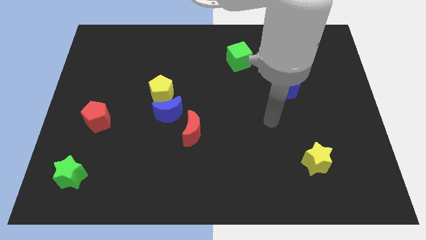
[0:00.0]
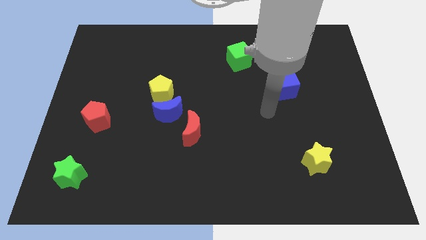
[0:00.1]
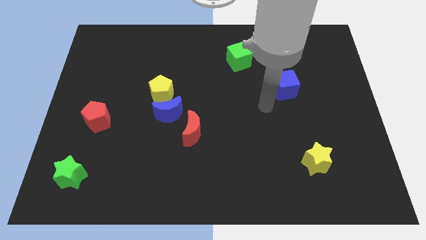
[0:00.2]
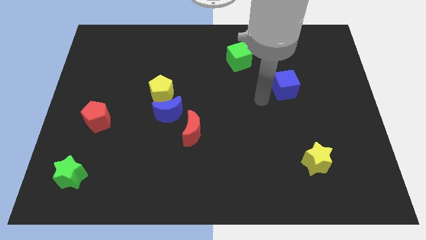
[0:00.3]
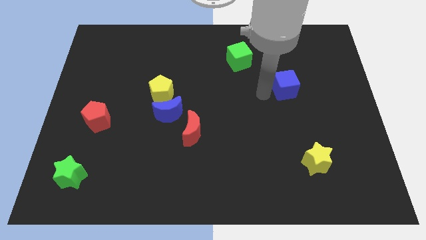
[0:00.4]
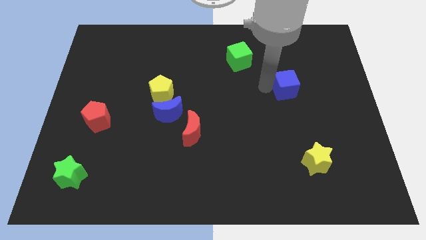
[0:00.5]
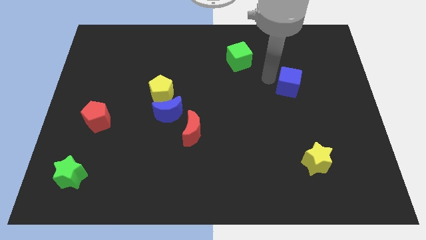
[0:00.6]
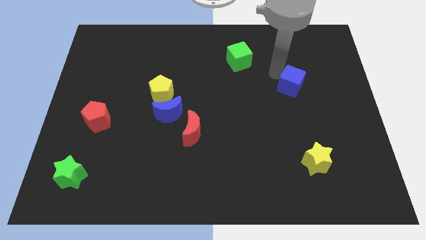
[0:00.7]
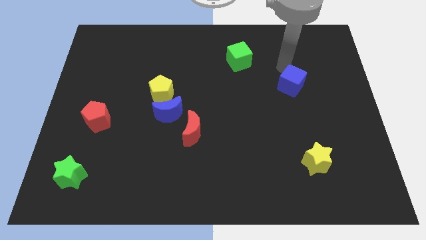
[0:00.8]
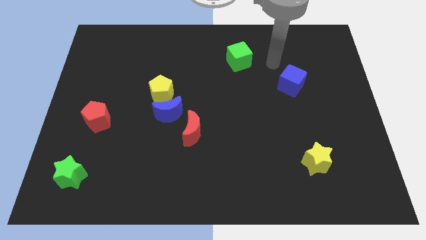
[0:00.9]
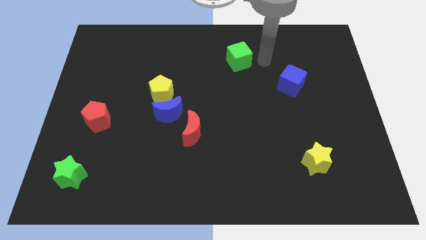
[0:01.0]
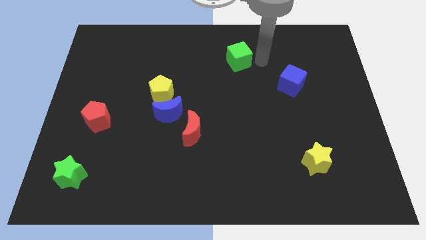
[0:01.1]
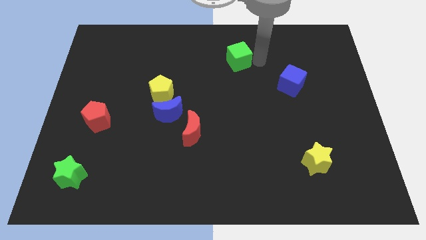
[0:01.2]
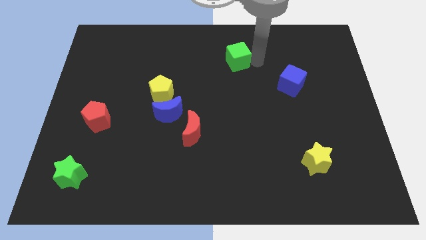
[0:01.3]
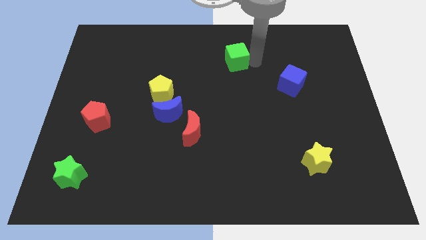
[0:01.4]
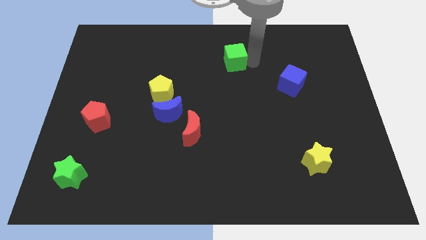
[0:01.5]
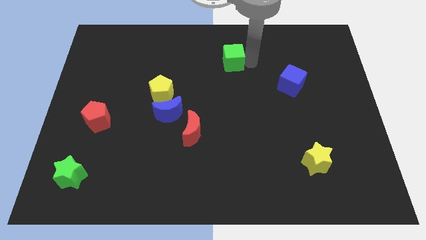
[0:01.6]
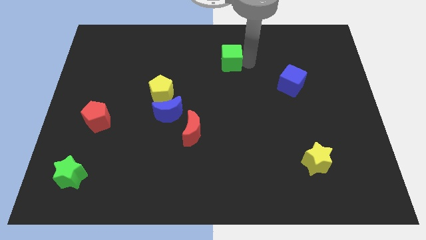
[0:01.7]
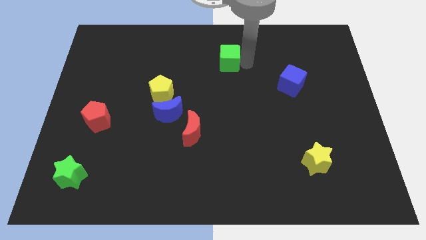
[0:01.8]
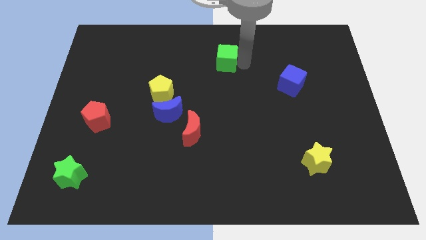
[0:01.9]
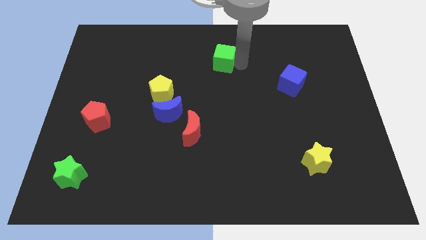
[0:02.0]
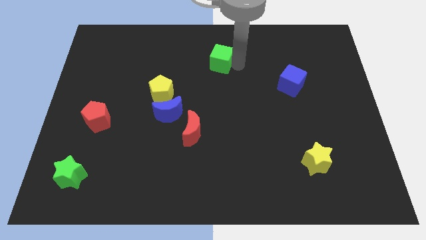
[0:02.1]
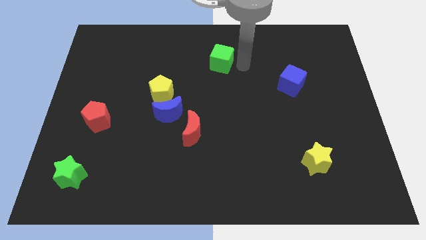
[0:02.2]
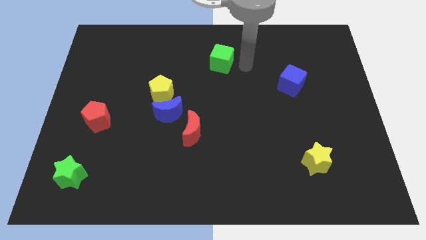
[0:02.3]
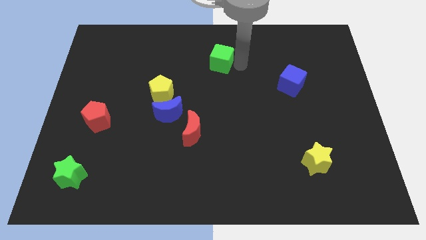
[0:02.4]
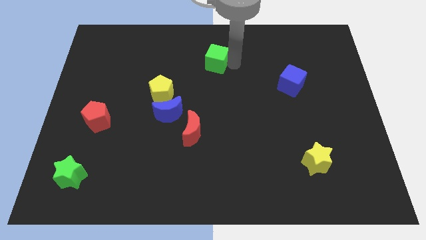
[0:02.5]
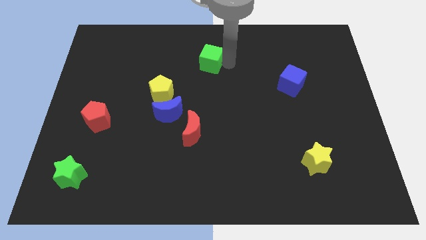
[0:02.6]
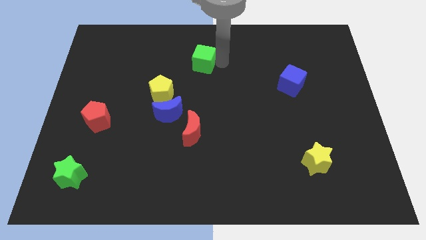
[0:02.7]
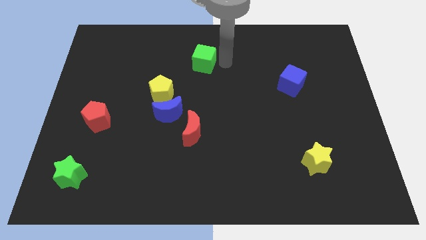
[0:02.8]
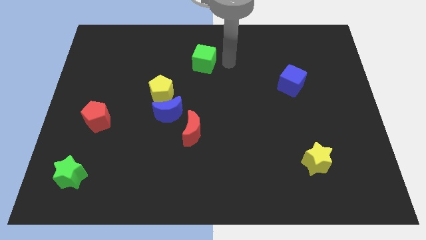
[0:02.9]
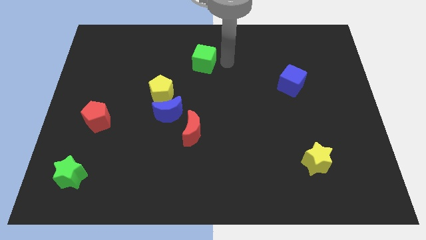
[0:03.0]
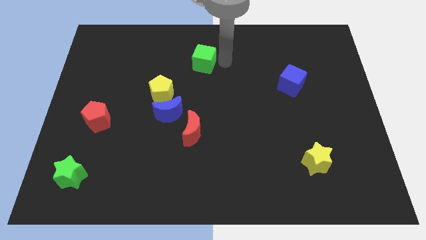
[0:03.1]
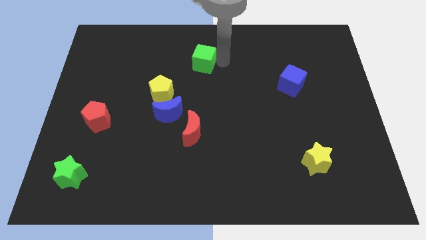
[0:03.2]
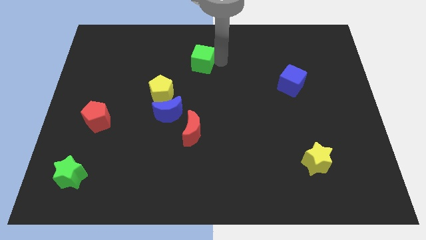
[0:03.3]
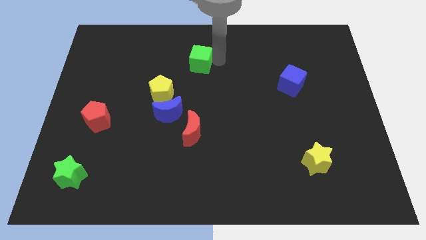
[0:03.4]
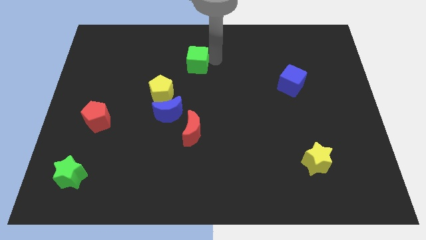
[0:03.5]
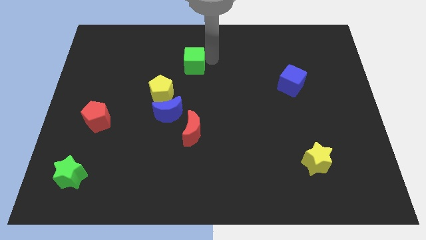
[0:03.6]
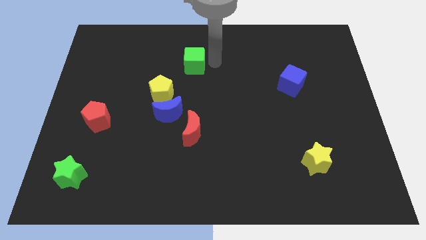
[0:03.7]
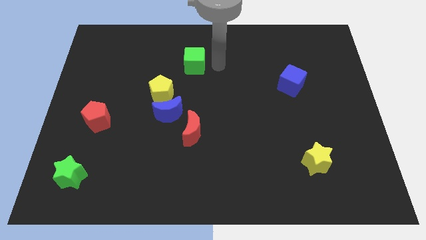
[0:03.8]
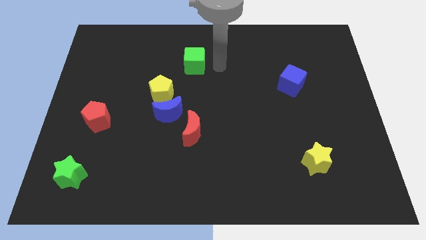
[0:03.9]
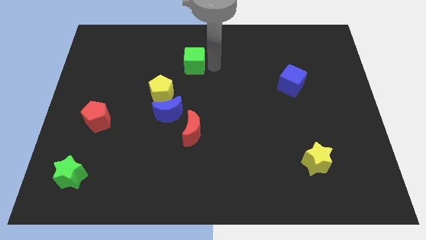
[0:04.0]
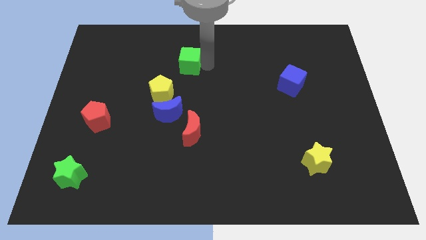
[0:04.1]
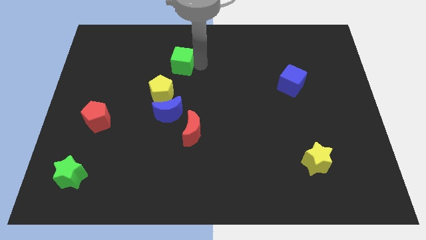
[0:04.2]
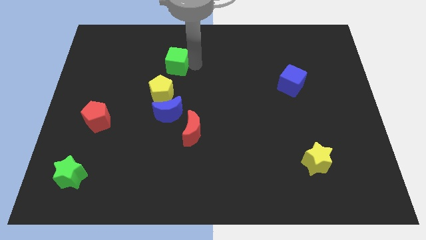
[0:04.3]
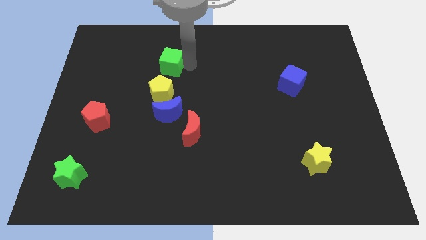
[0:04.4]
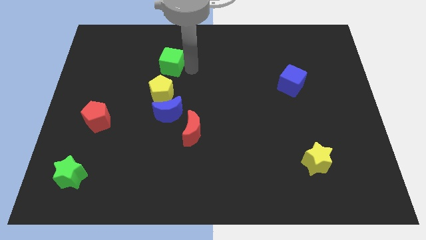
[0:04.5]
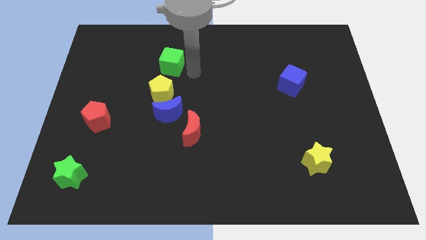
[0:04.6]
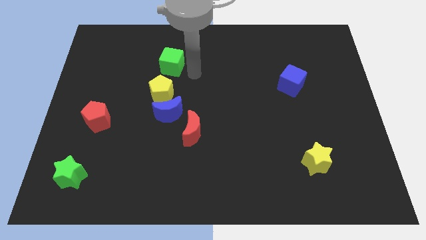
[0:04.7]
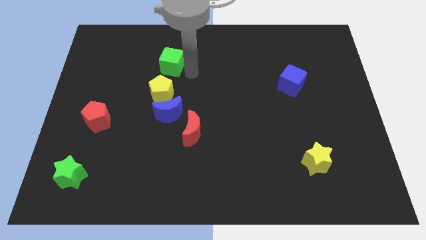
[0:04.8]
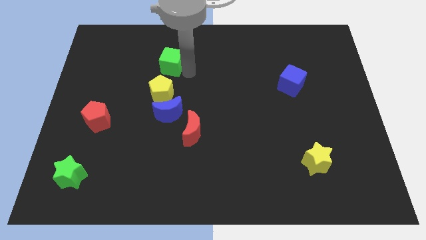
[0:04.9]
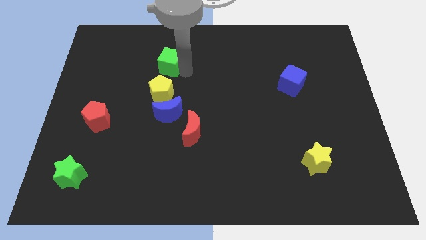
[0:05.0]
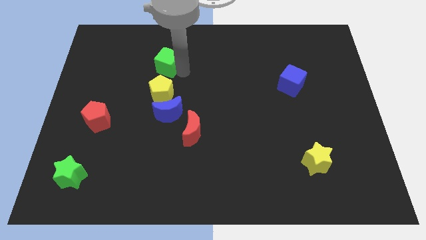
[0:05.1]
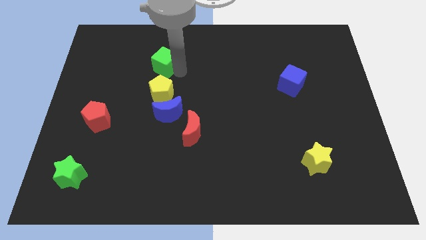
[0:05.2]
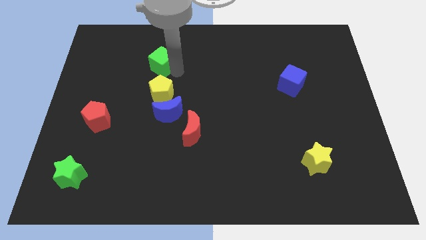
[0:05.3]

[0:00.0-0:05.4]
move the green cube to the left

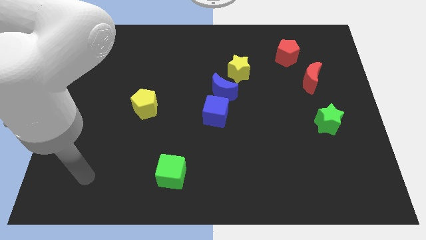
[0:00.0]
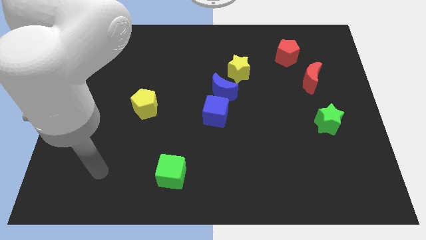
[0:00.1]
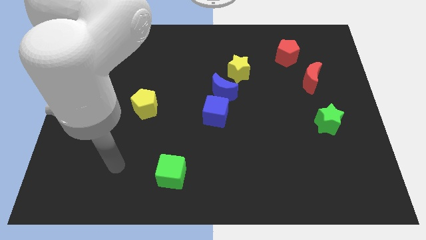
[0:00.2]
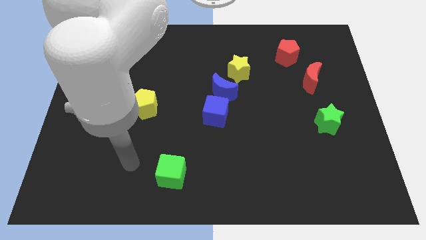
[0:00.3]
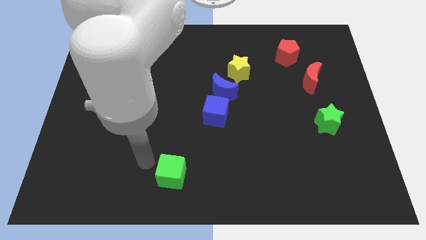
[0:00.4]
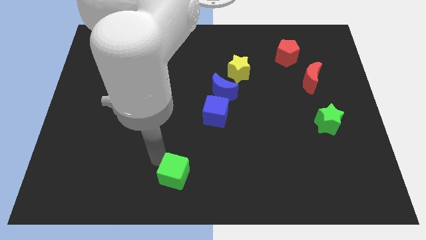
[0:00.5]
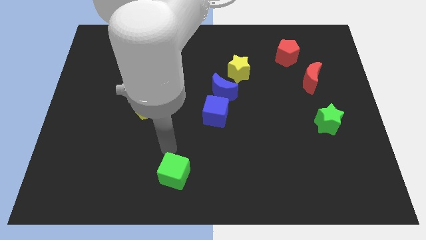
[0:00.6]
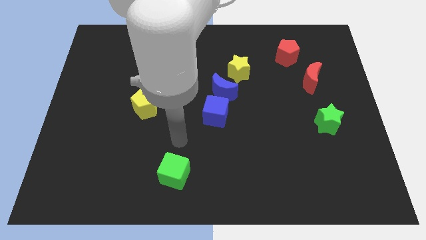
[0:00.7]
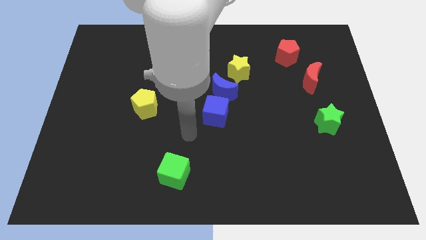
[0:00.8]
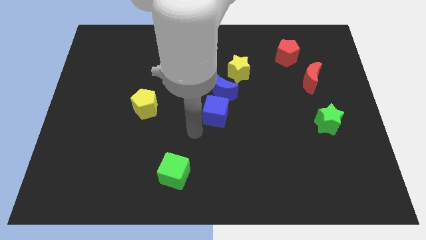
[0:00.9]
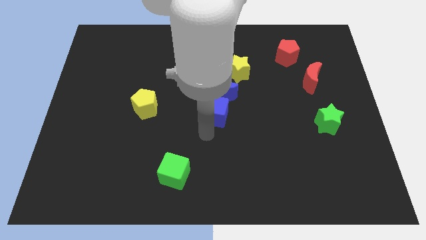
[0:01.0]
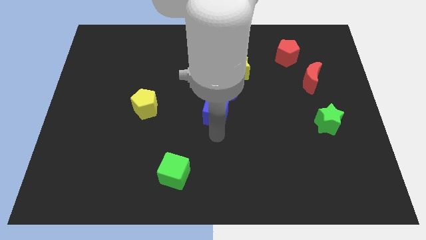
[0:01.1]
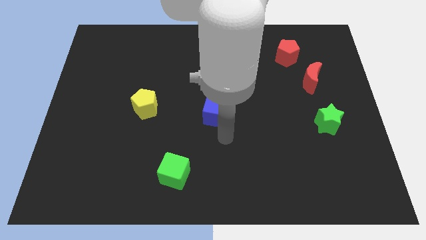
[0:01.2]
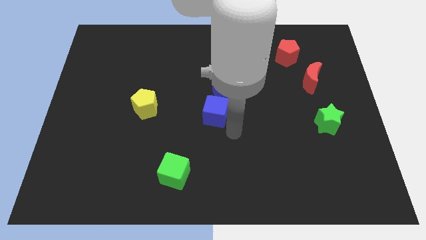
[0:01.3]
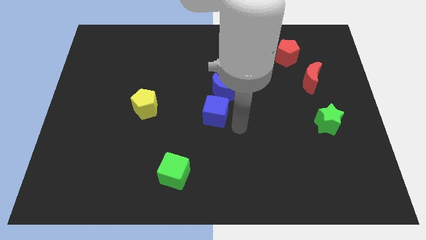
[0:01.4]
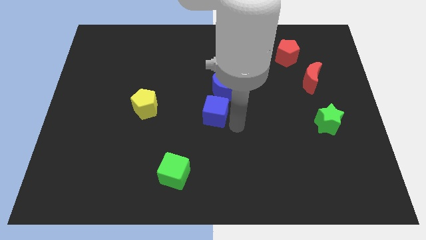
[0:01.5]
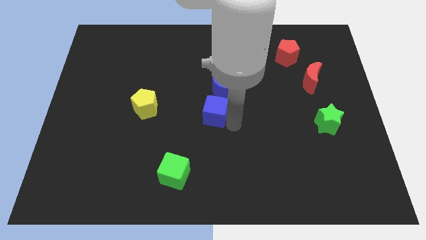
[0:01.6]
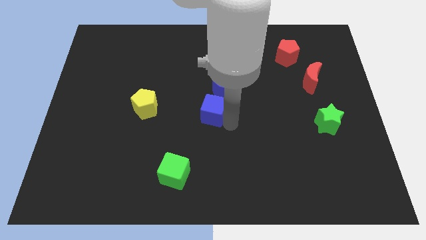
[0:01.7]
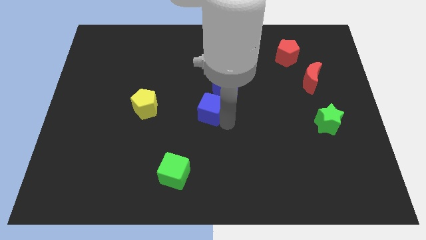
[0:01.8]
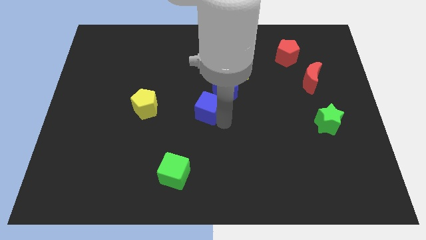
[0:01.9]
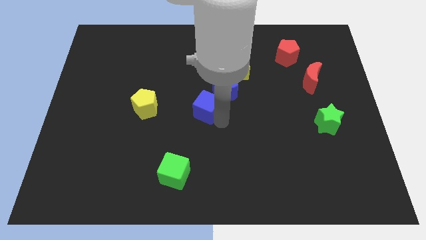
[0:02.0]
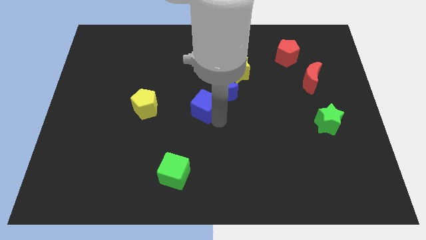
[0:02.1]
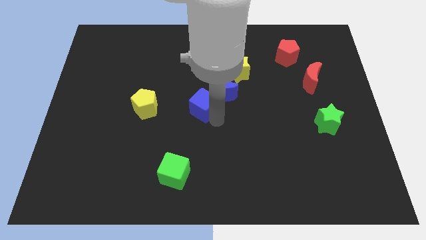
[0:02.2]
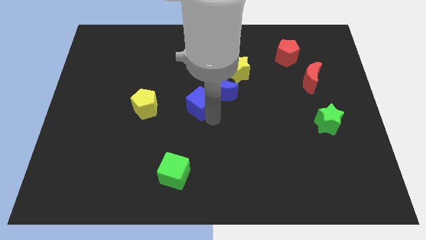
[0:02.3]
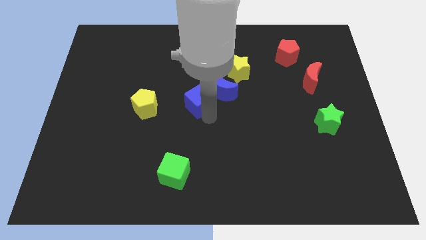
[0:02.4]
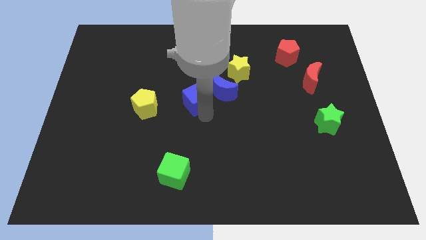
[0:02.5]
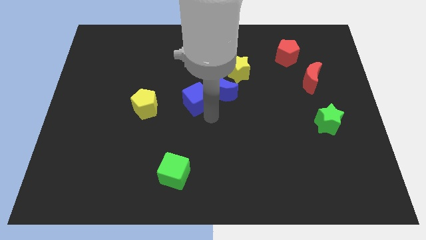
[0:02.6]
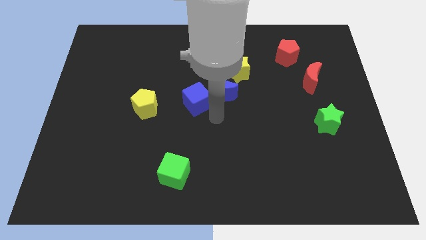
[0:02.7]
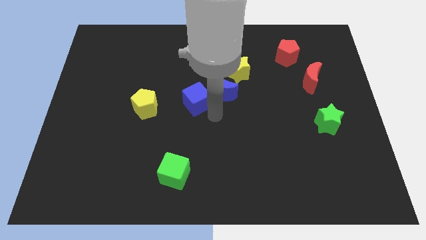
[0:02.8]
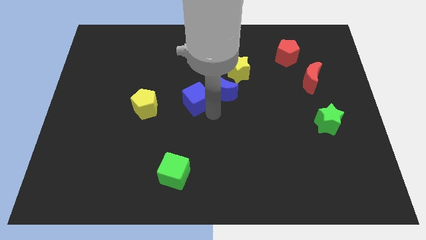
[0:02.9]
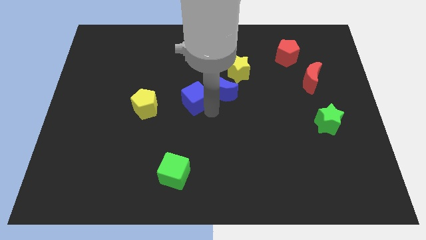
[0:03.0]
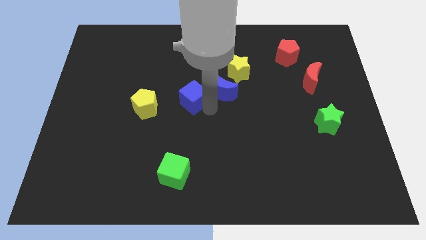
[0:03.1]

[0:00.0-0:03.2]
slide the blue cube up and then to the left a little bit

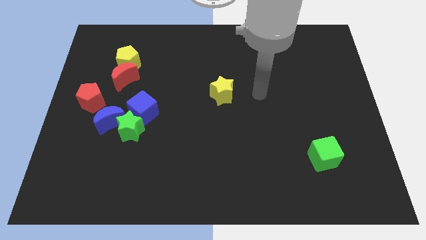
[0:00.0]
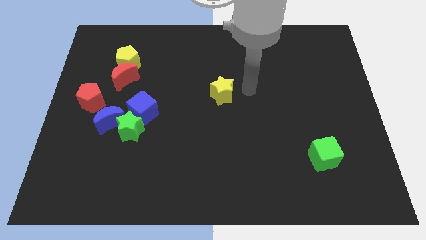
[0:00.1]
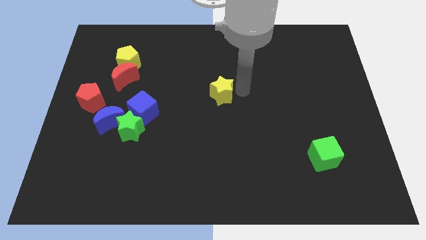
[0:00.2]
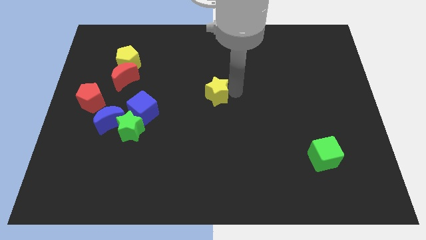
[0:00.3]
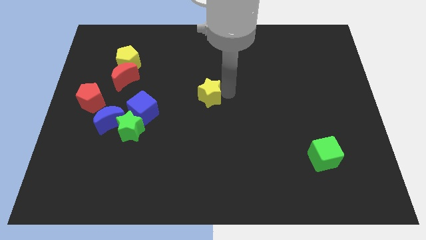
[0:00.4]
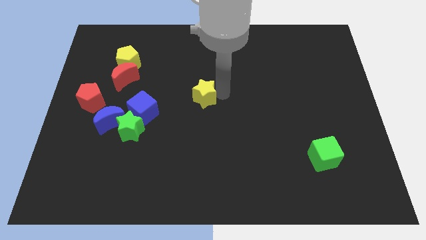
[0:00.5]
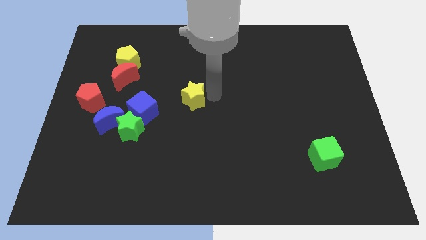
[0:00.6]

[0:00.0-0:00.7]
slightly push the yellow star to the left
